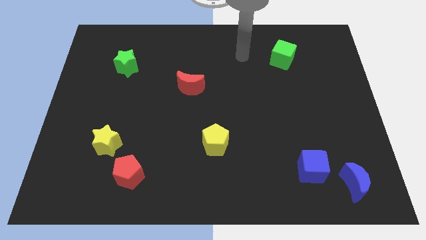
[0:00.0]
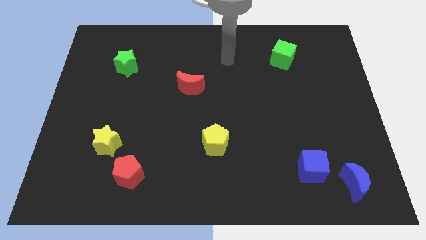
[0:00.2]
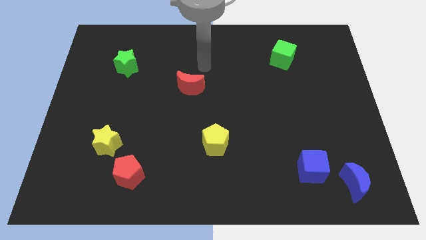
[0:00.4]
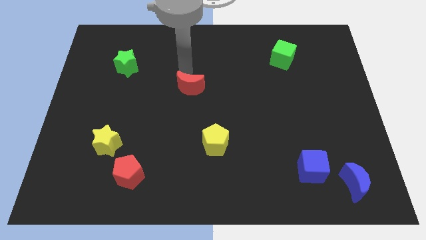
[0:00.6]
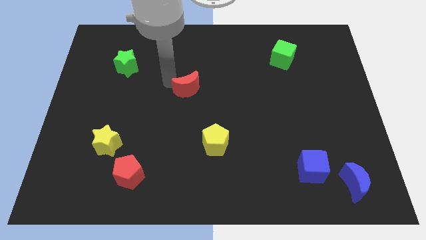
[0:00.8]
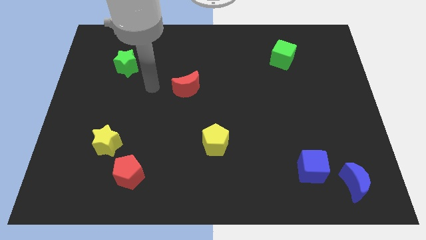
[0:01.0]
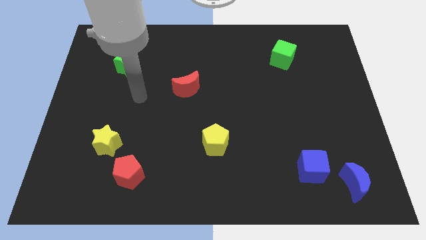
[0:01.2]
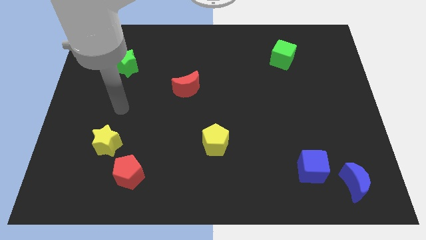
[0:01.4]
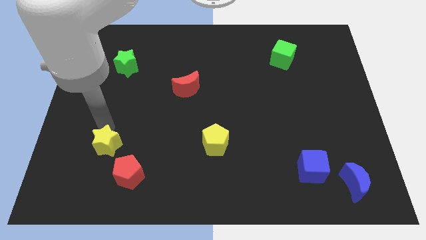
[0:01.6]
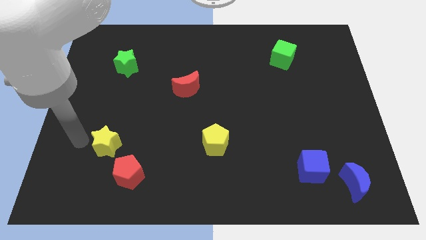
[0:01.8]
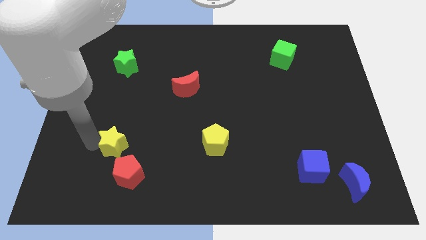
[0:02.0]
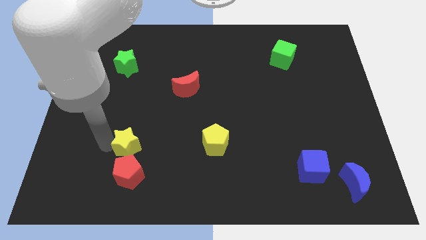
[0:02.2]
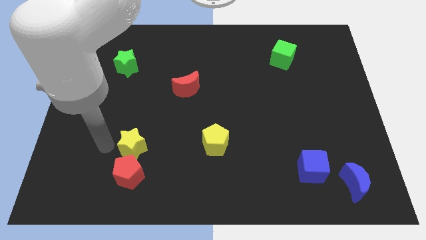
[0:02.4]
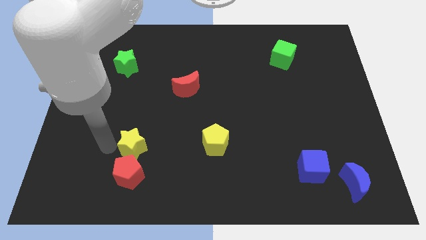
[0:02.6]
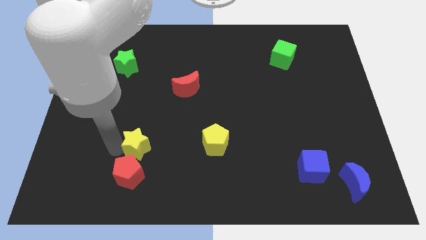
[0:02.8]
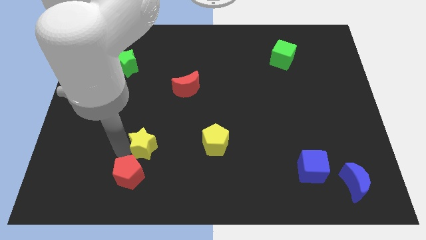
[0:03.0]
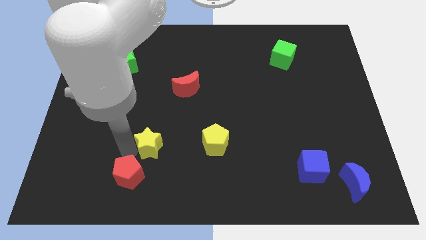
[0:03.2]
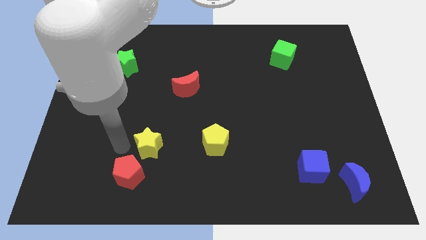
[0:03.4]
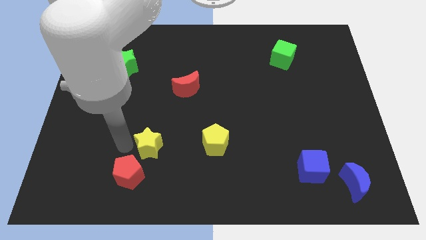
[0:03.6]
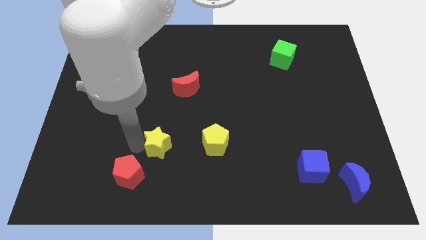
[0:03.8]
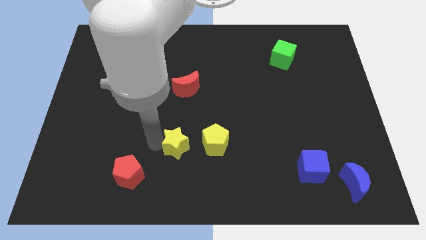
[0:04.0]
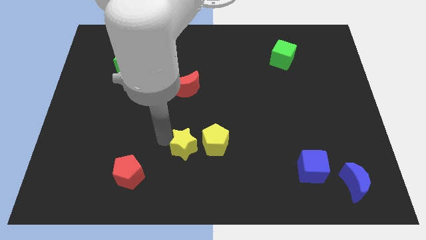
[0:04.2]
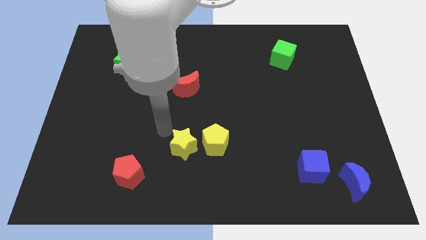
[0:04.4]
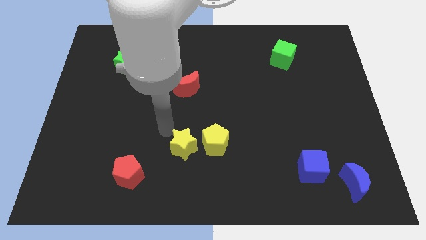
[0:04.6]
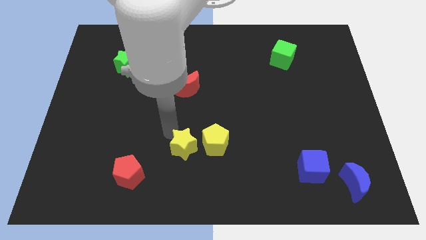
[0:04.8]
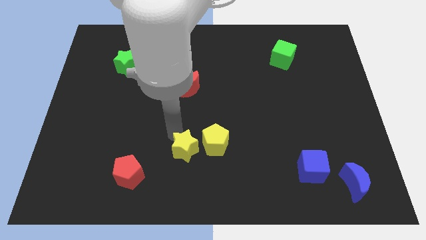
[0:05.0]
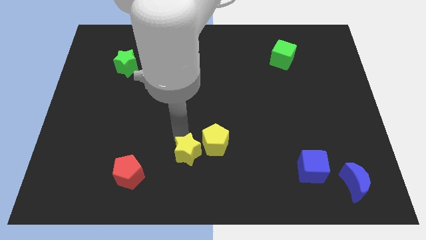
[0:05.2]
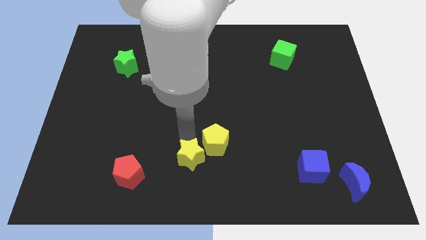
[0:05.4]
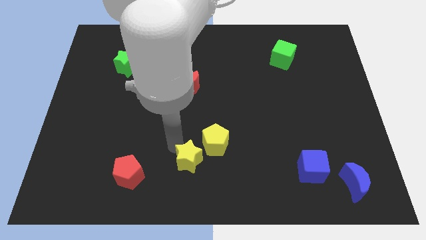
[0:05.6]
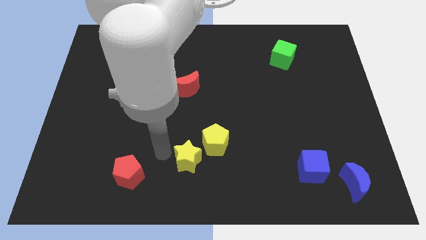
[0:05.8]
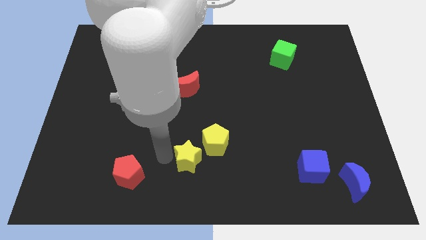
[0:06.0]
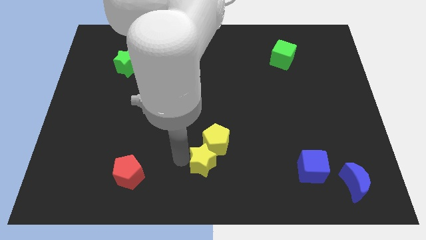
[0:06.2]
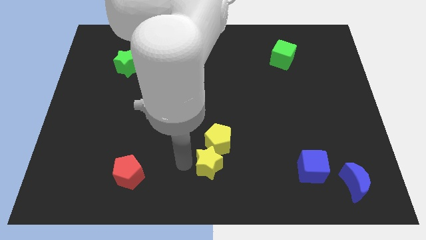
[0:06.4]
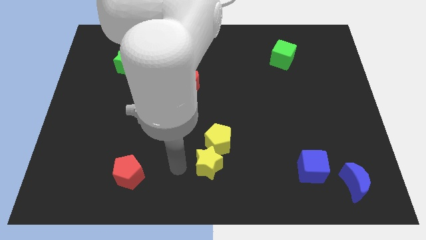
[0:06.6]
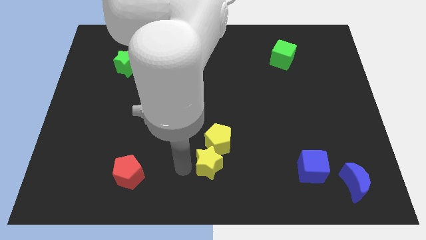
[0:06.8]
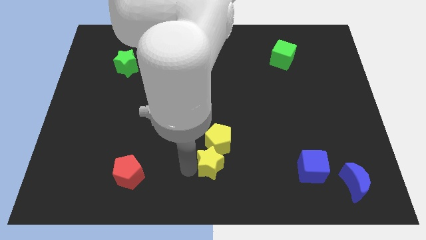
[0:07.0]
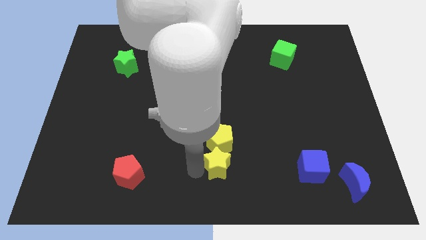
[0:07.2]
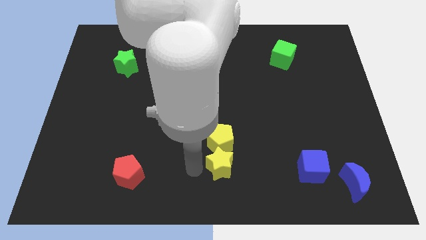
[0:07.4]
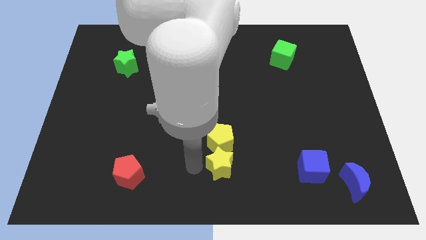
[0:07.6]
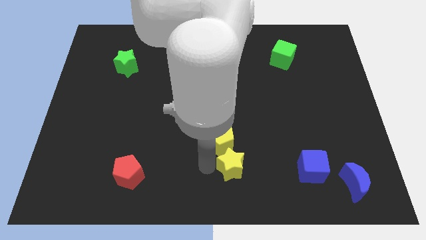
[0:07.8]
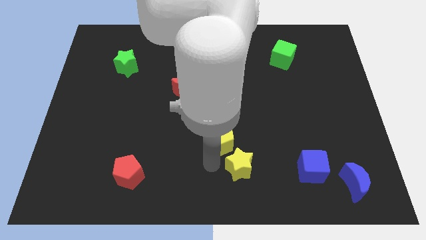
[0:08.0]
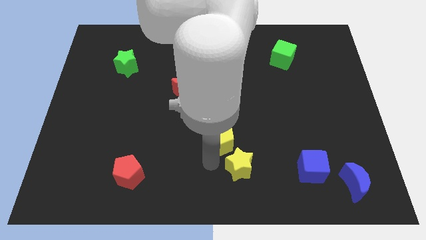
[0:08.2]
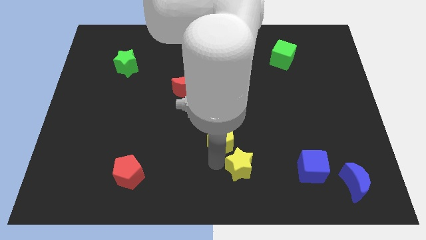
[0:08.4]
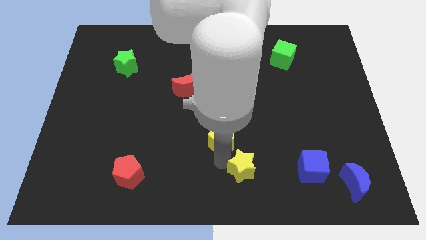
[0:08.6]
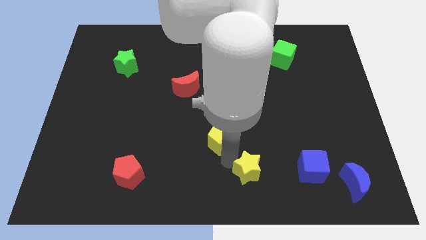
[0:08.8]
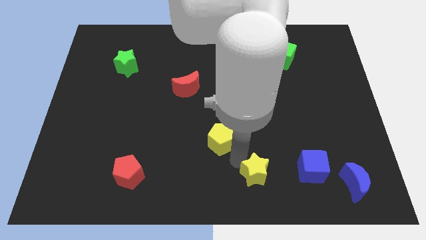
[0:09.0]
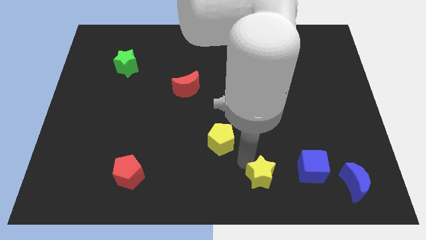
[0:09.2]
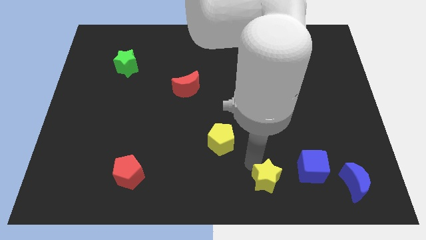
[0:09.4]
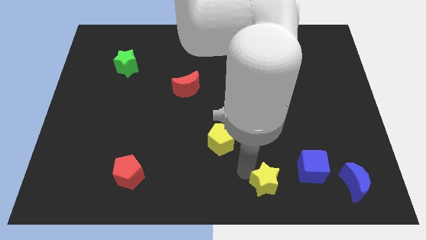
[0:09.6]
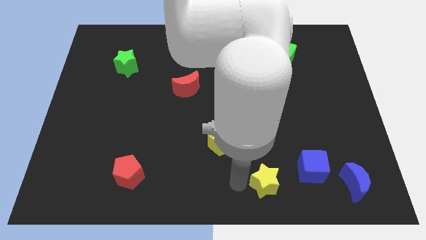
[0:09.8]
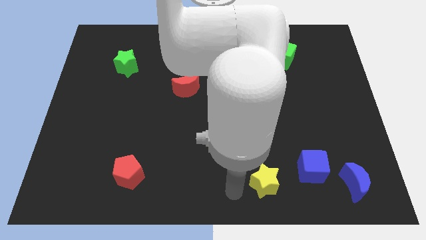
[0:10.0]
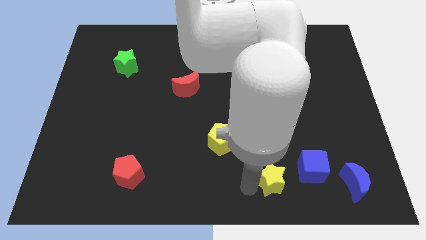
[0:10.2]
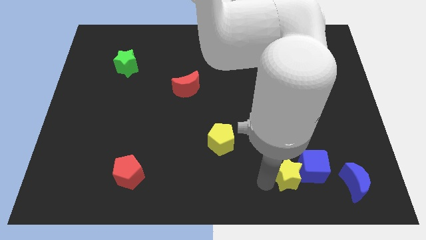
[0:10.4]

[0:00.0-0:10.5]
slide the yellow star towards the blue cube
